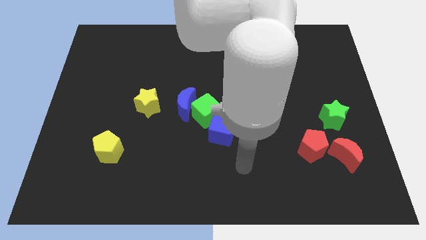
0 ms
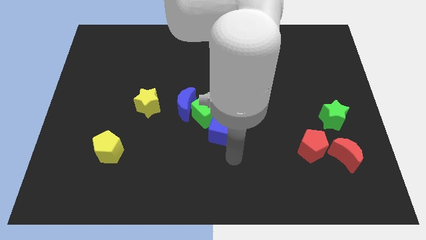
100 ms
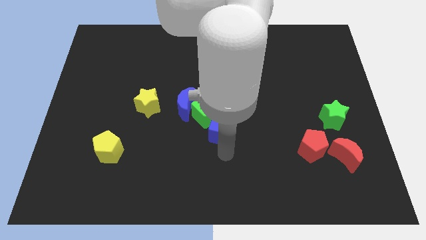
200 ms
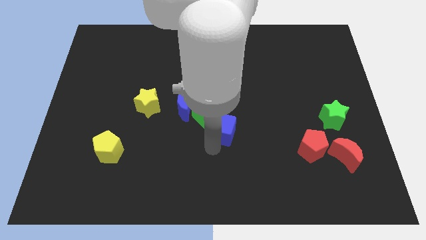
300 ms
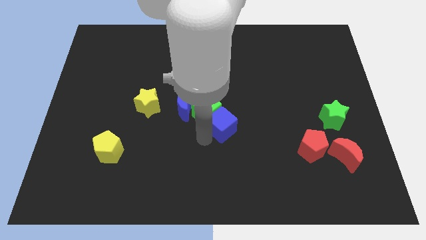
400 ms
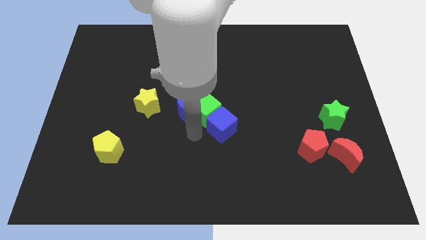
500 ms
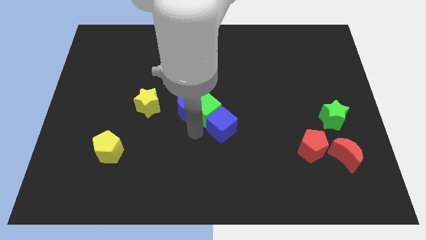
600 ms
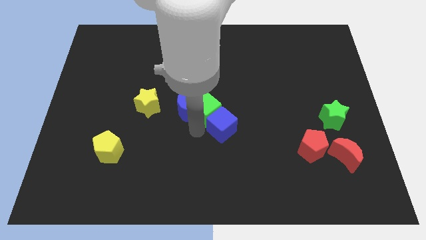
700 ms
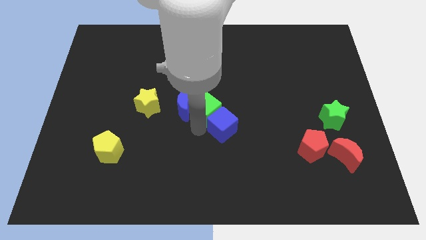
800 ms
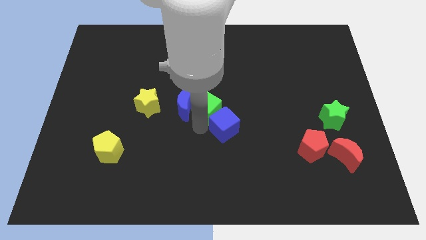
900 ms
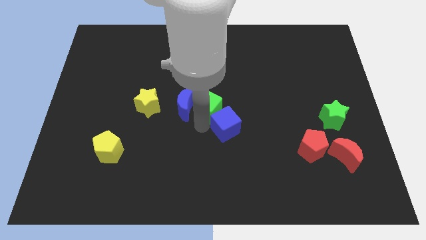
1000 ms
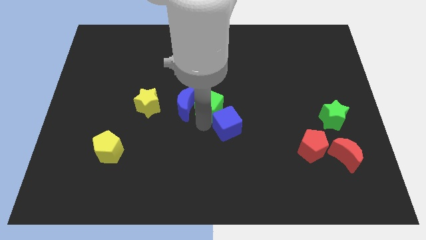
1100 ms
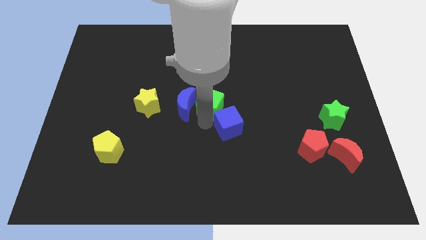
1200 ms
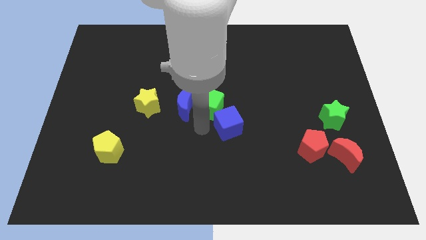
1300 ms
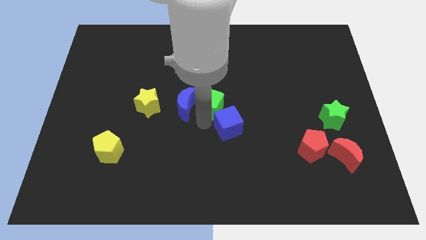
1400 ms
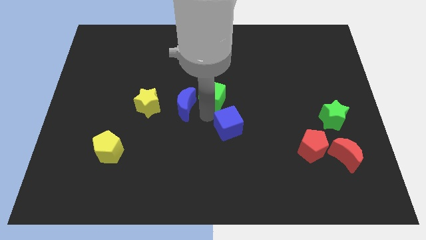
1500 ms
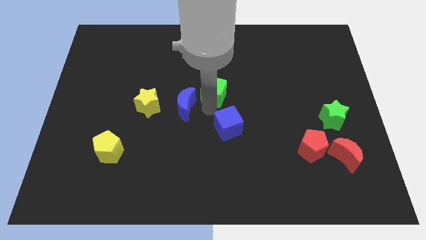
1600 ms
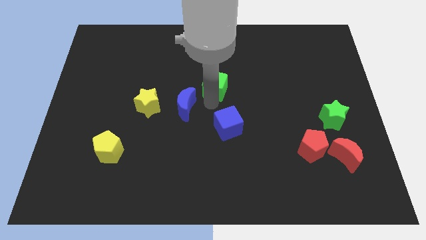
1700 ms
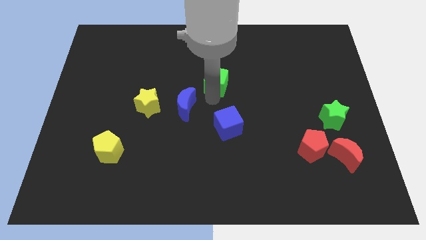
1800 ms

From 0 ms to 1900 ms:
pull the green cube apart from the blue moon and blue cube

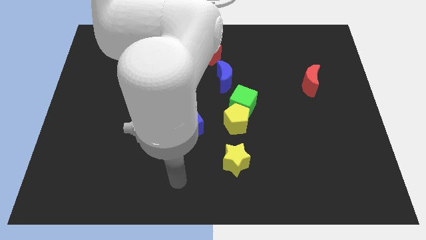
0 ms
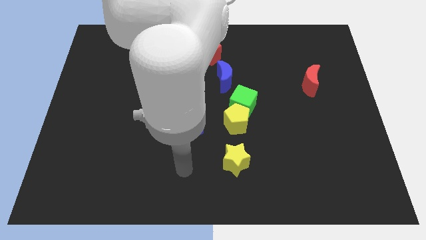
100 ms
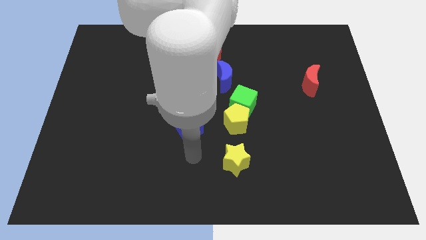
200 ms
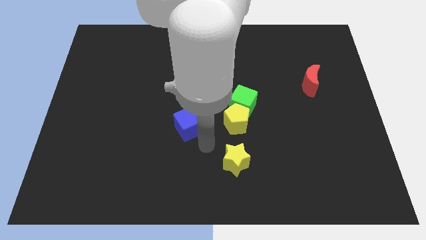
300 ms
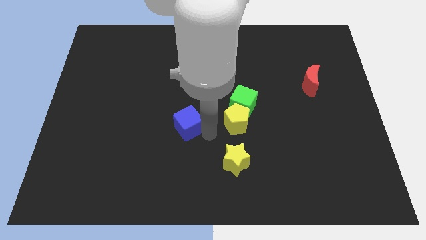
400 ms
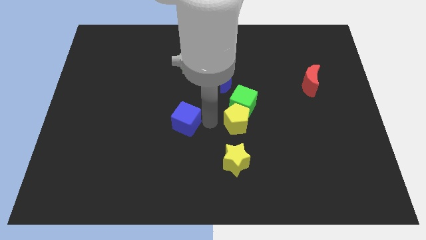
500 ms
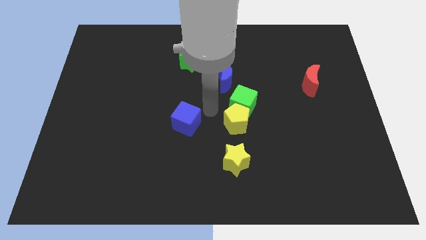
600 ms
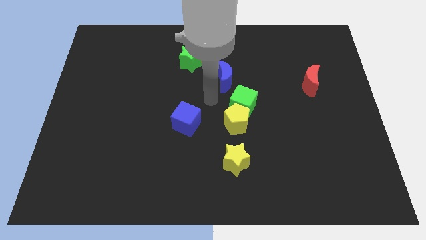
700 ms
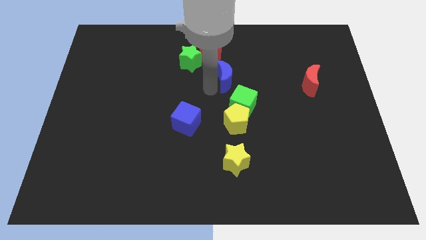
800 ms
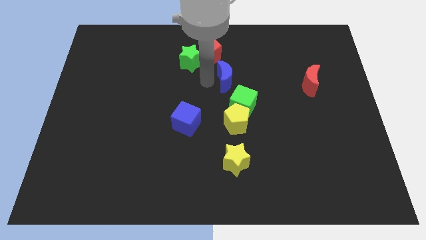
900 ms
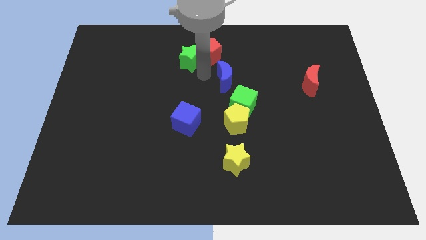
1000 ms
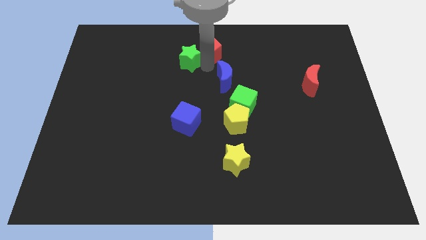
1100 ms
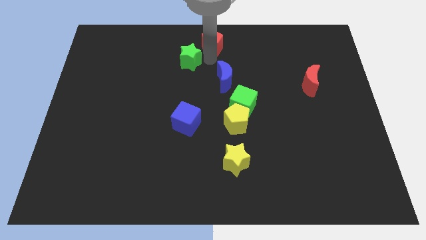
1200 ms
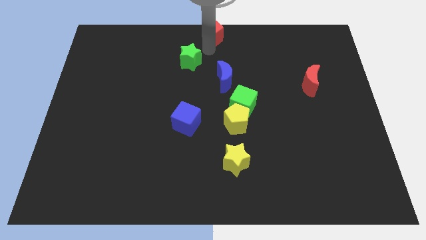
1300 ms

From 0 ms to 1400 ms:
pull the green star apart from the red pentagon

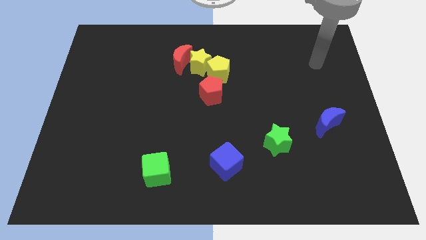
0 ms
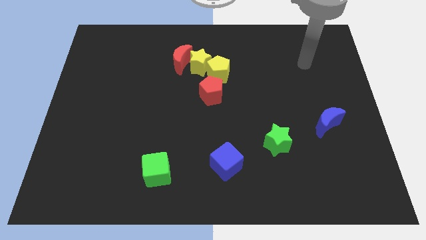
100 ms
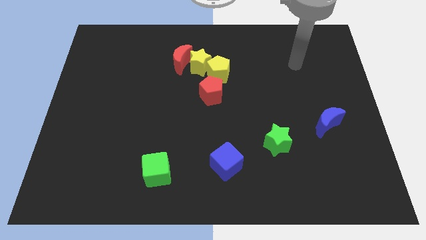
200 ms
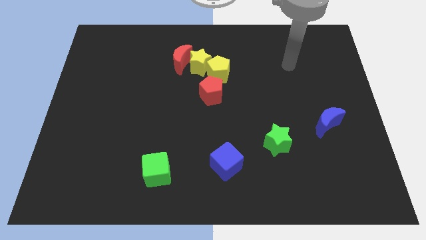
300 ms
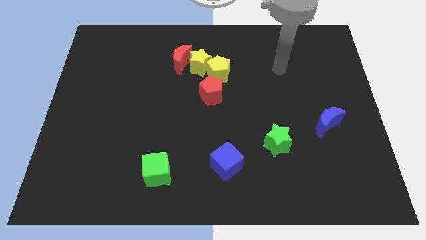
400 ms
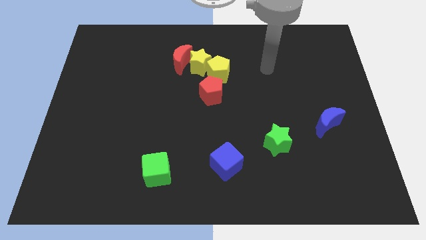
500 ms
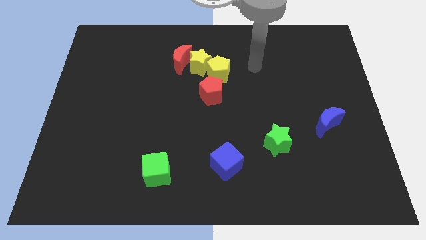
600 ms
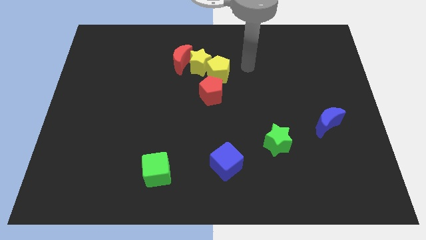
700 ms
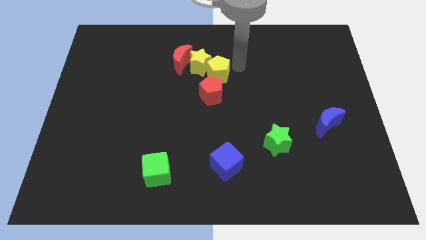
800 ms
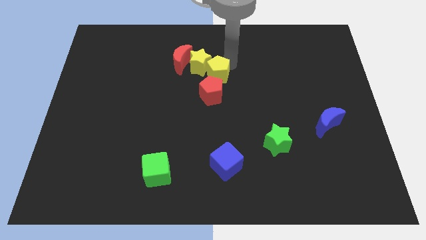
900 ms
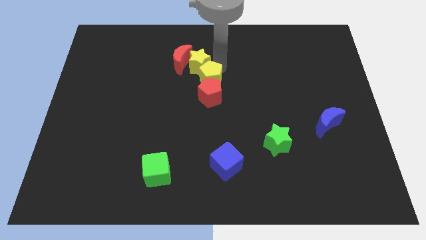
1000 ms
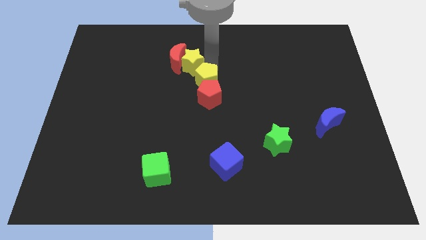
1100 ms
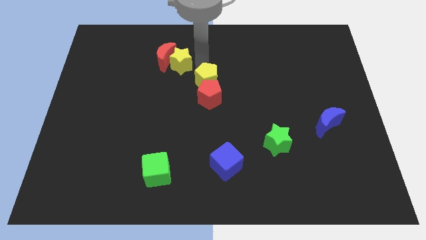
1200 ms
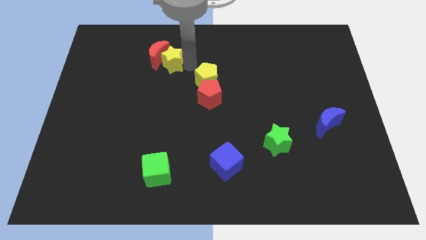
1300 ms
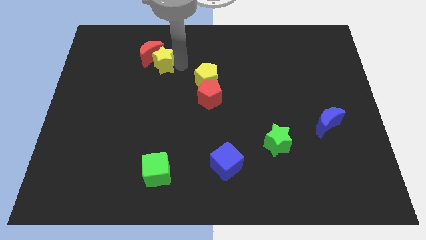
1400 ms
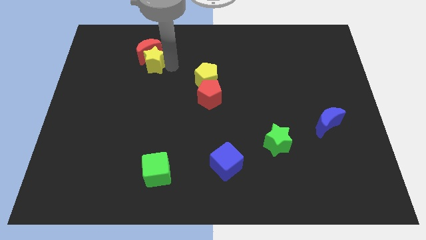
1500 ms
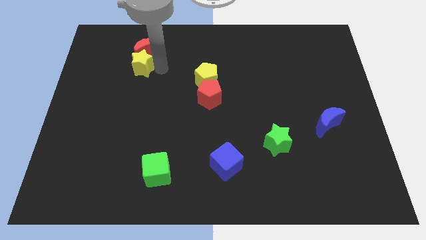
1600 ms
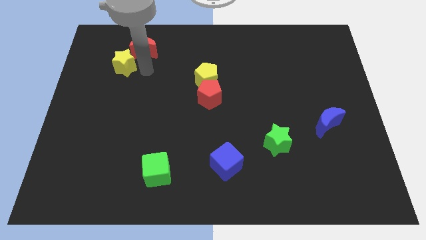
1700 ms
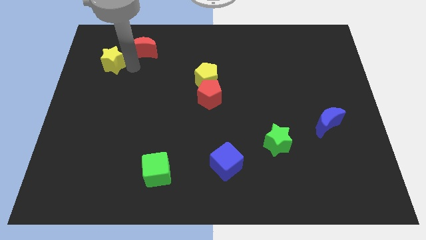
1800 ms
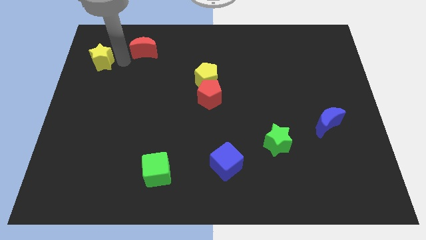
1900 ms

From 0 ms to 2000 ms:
move the red moon away from the yellow star

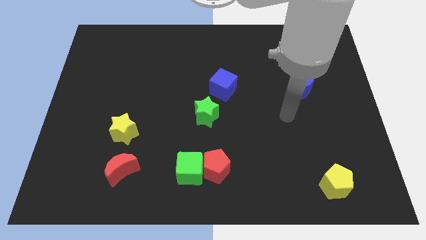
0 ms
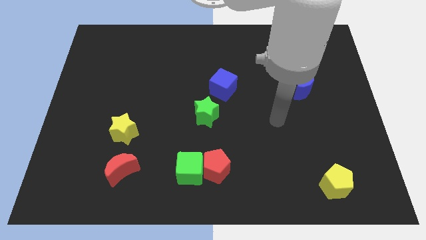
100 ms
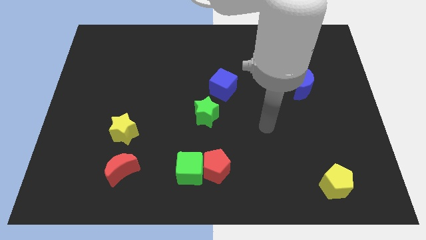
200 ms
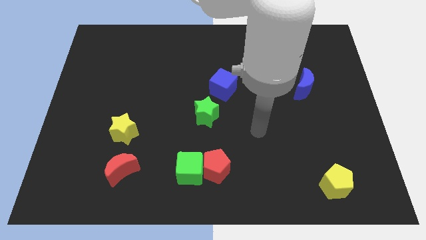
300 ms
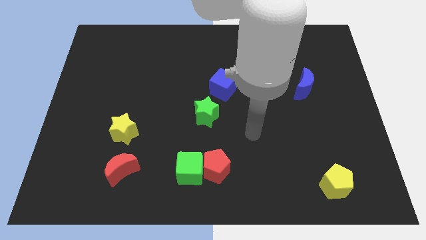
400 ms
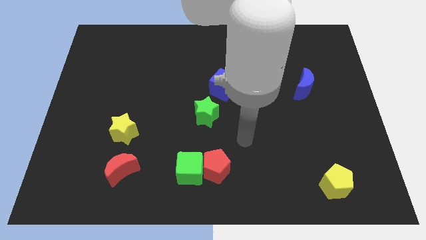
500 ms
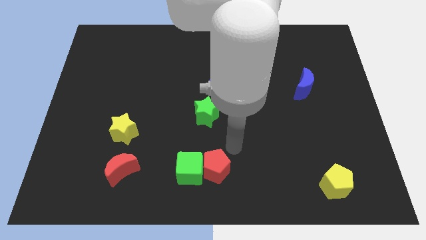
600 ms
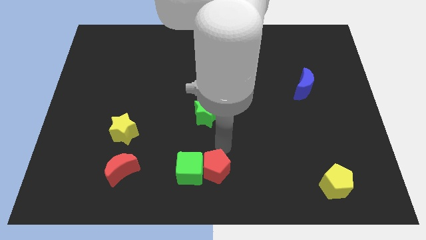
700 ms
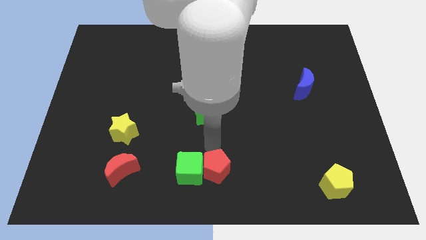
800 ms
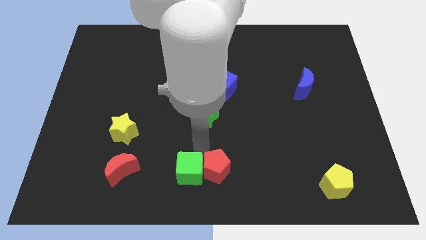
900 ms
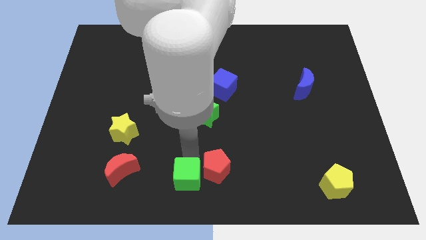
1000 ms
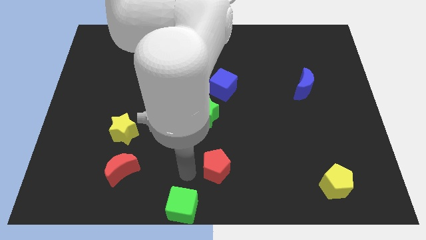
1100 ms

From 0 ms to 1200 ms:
separate the red pentagon from the green cube

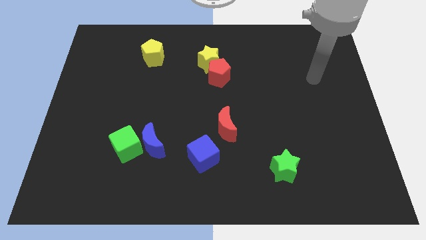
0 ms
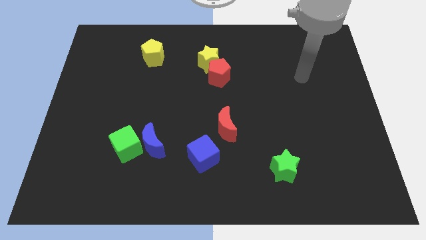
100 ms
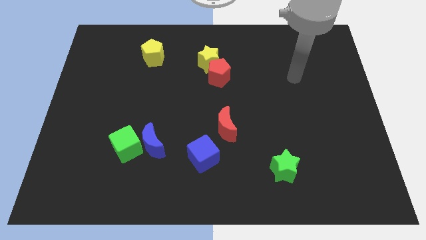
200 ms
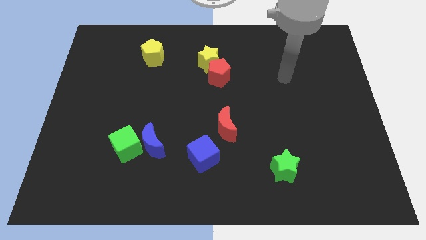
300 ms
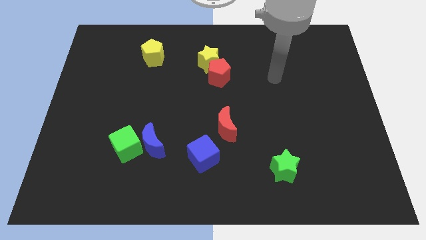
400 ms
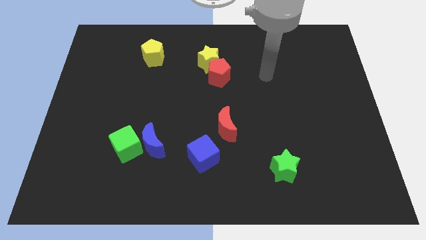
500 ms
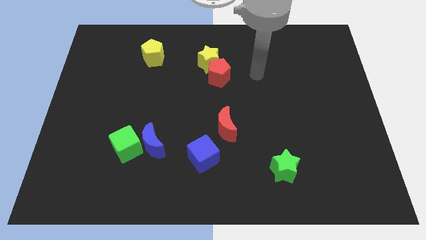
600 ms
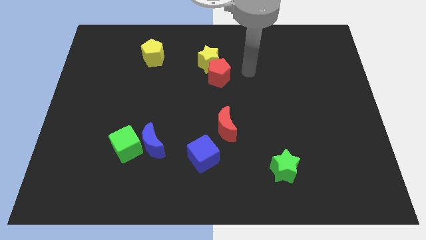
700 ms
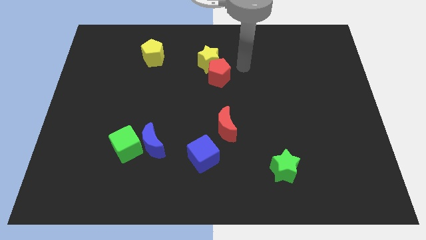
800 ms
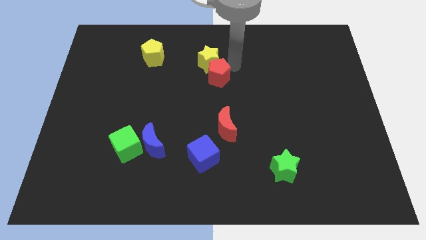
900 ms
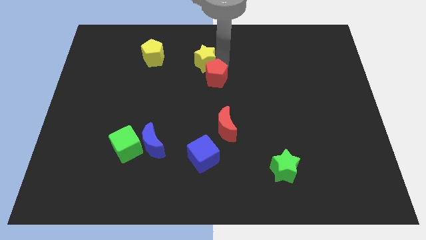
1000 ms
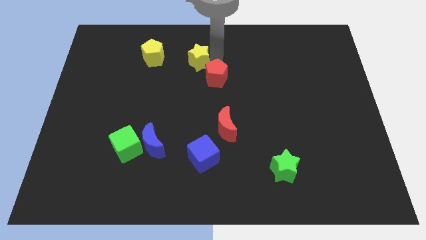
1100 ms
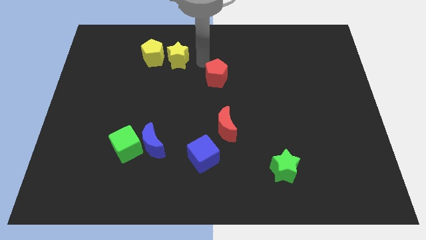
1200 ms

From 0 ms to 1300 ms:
pull the red pentagon apart from the yellow star

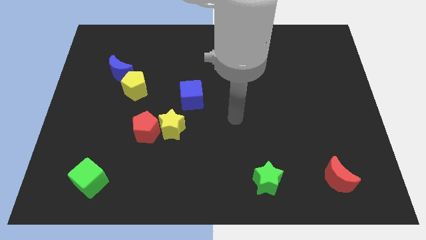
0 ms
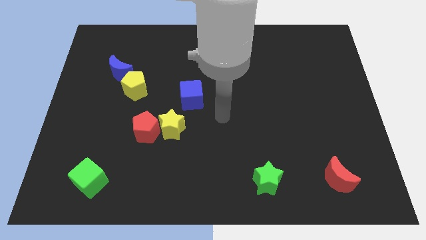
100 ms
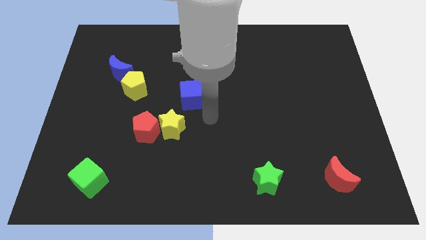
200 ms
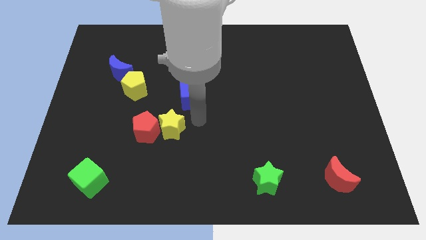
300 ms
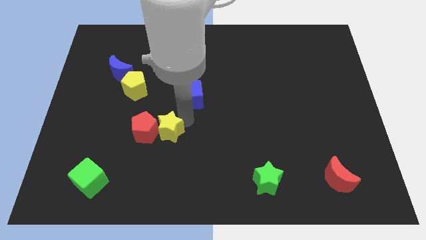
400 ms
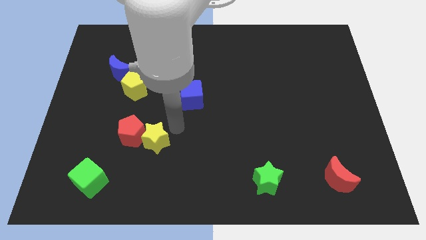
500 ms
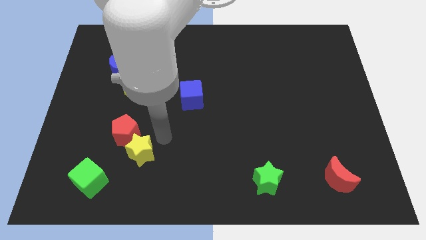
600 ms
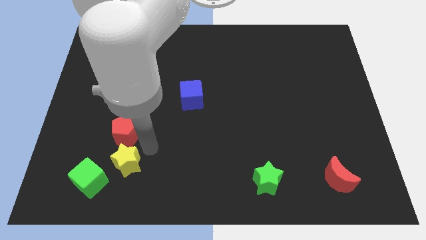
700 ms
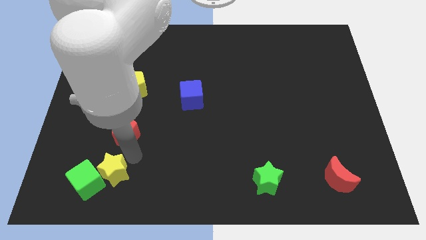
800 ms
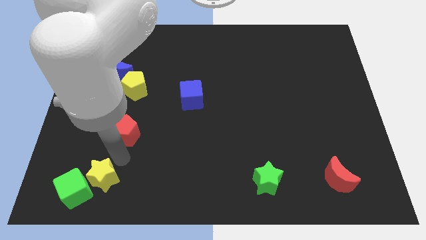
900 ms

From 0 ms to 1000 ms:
separate the red pentagon from the yellow star

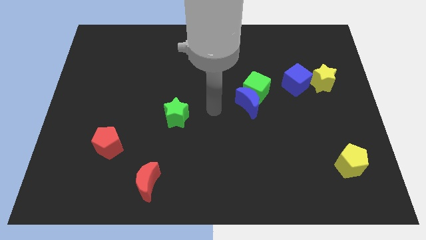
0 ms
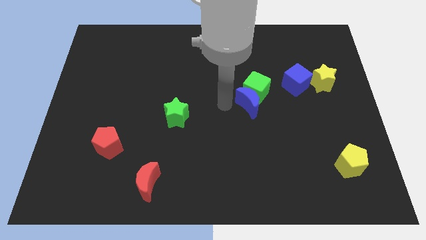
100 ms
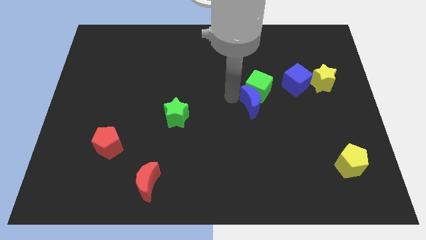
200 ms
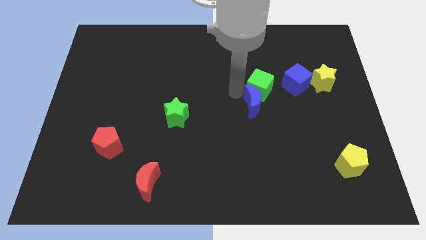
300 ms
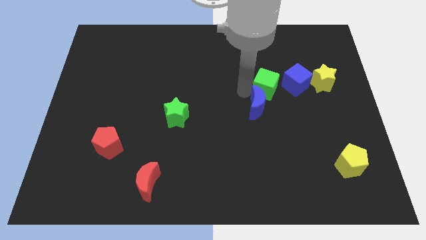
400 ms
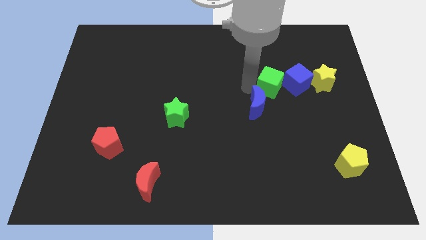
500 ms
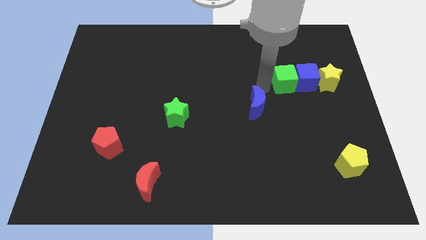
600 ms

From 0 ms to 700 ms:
move the blue moon away from the green cube
